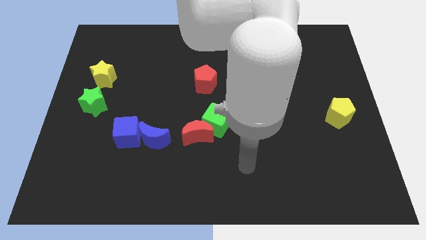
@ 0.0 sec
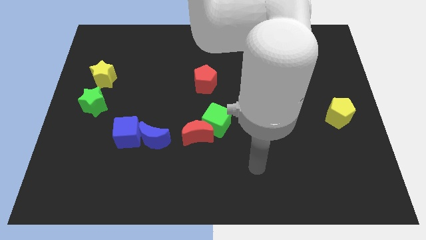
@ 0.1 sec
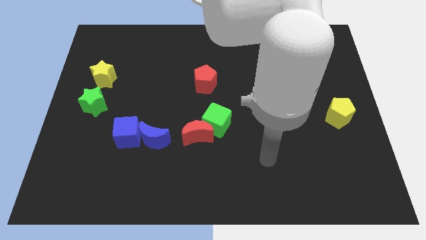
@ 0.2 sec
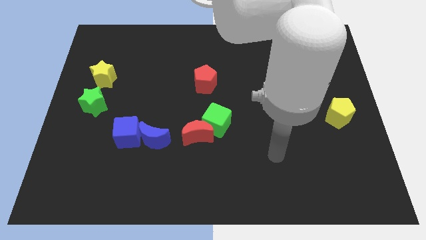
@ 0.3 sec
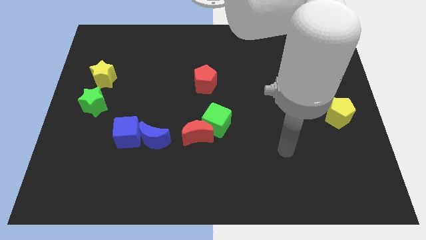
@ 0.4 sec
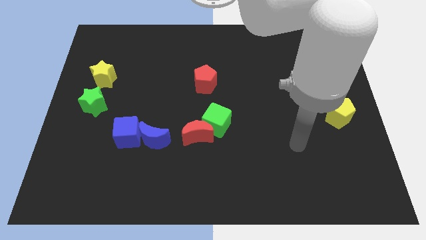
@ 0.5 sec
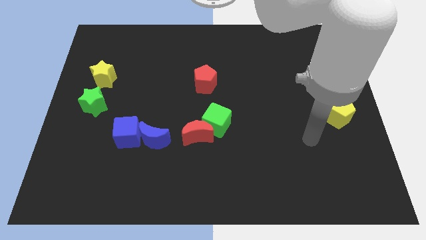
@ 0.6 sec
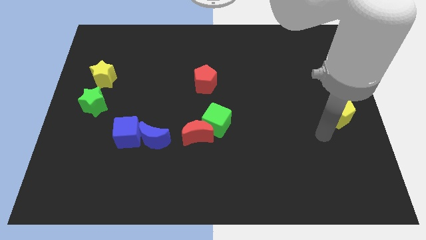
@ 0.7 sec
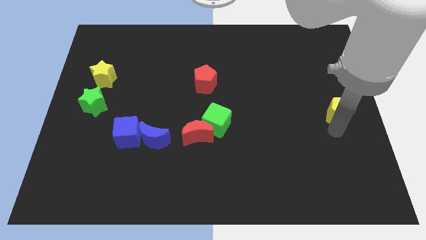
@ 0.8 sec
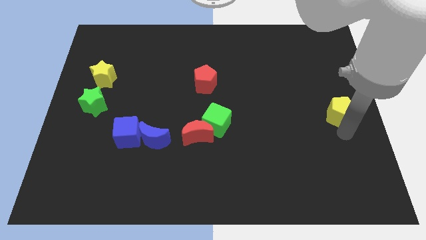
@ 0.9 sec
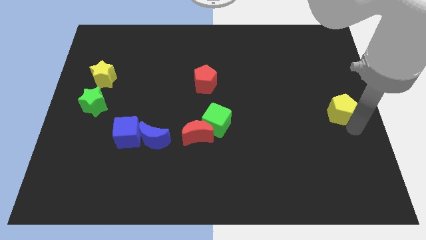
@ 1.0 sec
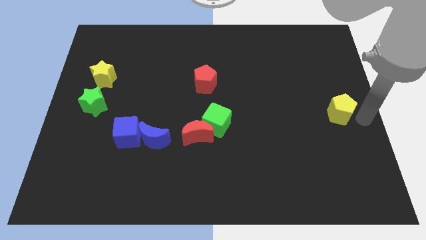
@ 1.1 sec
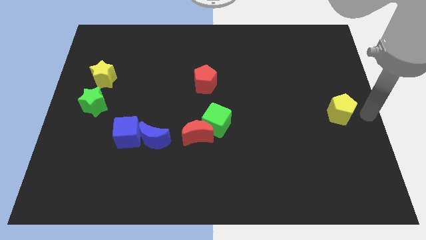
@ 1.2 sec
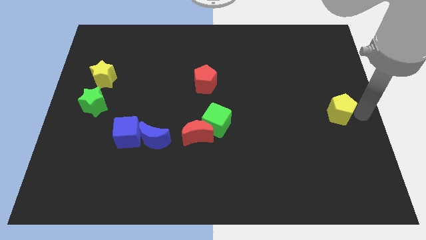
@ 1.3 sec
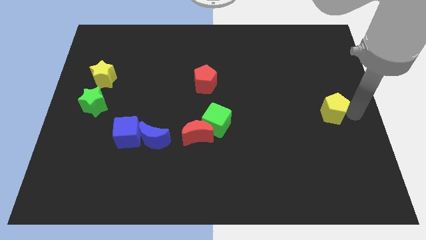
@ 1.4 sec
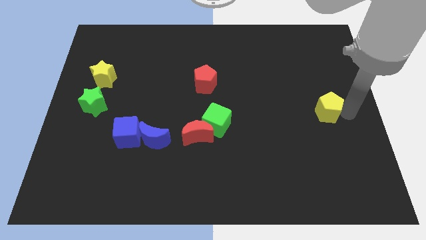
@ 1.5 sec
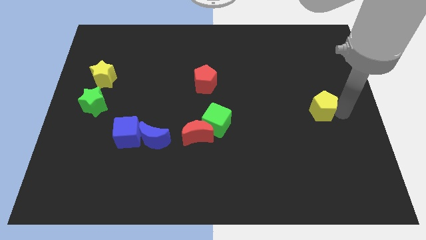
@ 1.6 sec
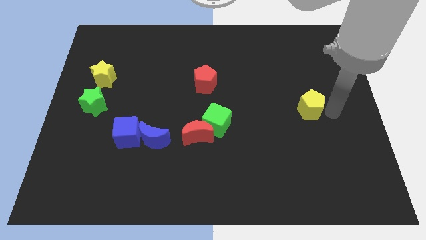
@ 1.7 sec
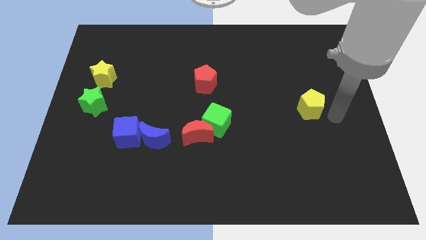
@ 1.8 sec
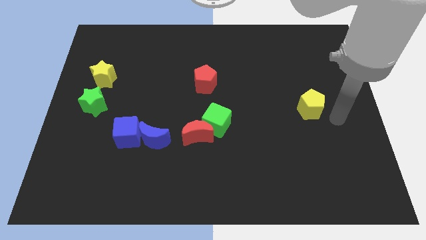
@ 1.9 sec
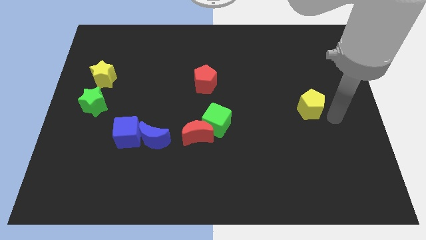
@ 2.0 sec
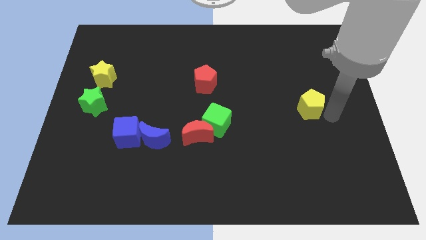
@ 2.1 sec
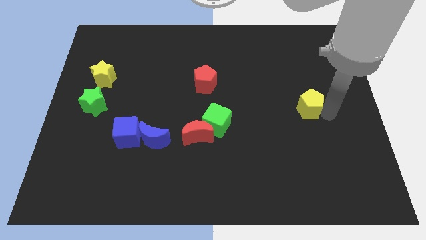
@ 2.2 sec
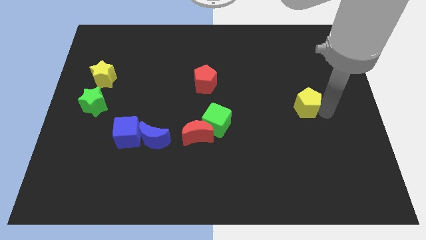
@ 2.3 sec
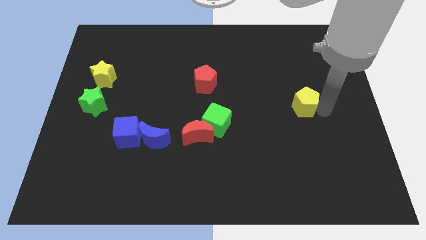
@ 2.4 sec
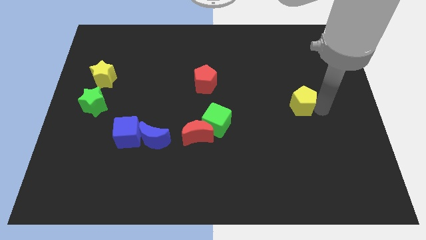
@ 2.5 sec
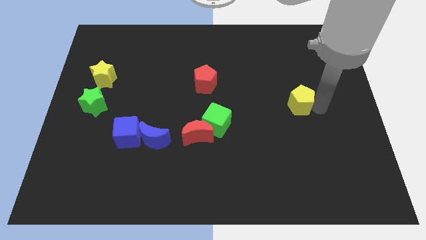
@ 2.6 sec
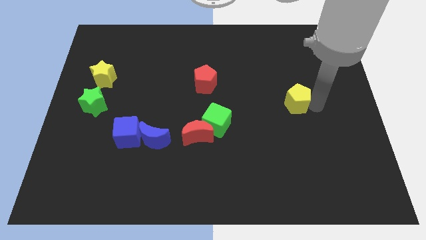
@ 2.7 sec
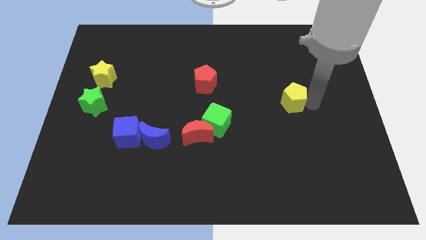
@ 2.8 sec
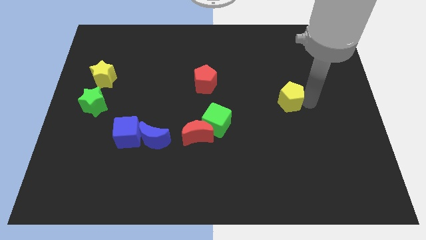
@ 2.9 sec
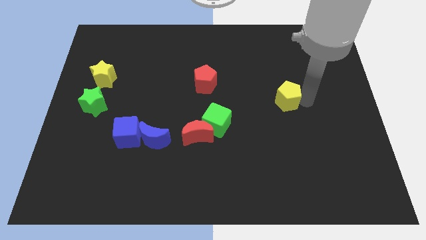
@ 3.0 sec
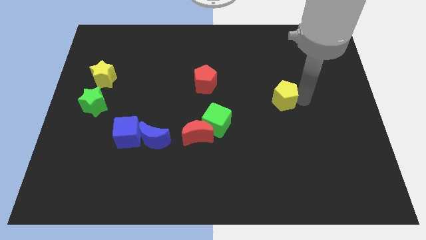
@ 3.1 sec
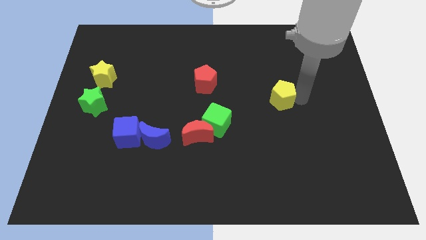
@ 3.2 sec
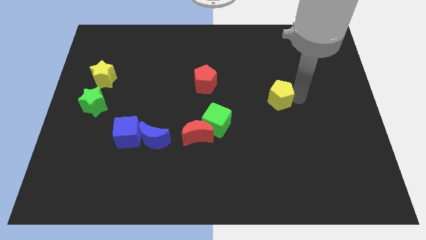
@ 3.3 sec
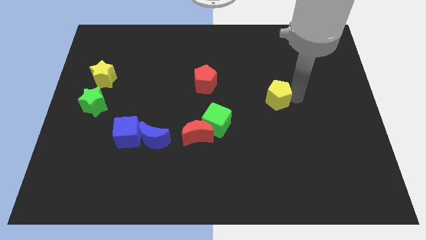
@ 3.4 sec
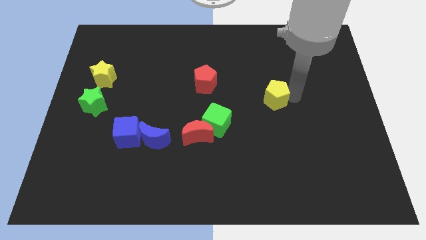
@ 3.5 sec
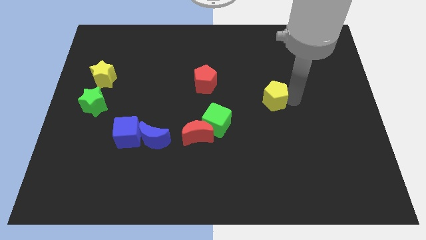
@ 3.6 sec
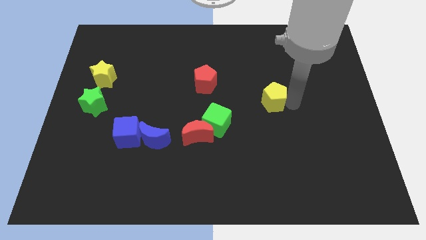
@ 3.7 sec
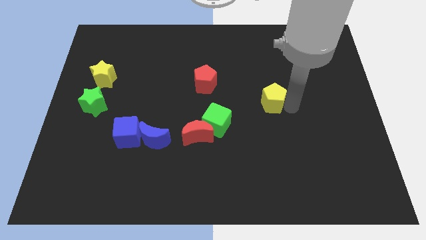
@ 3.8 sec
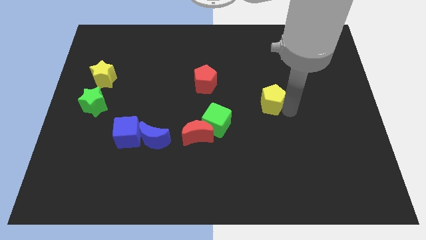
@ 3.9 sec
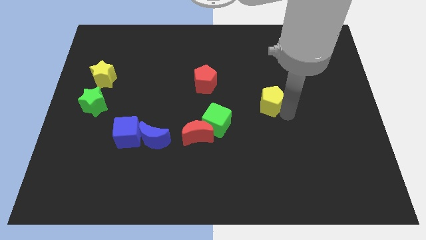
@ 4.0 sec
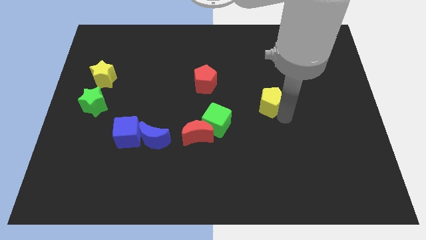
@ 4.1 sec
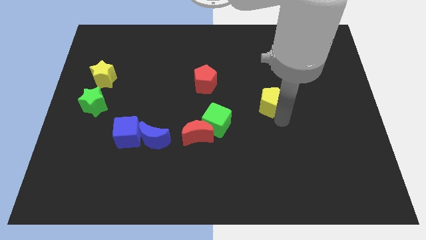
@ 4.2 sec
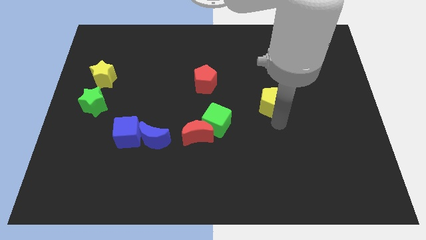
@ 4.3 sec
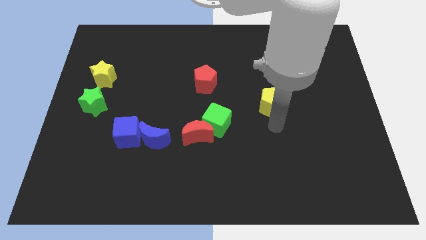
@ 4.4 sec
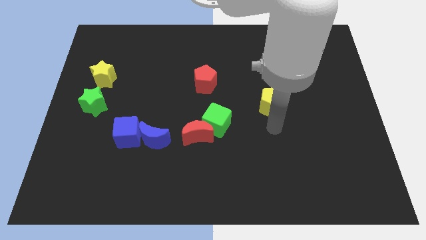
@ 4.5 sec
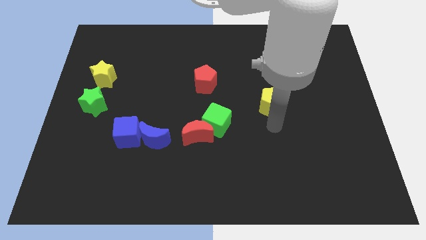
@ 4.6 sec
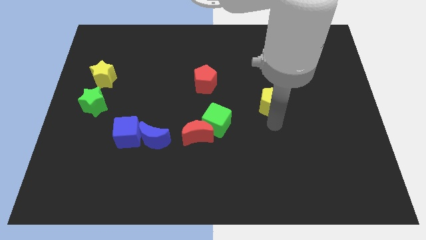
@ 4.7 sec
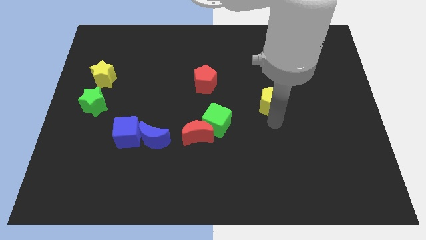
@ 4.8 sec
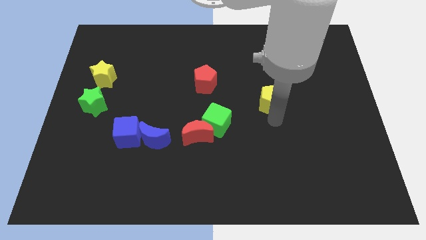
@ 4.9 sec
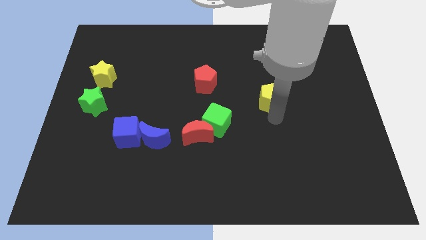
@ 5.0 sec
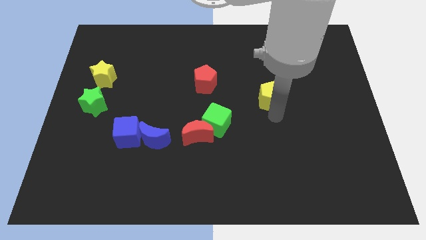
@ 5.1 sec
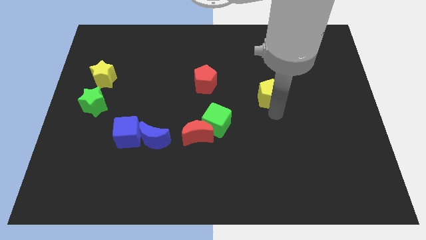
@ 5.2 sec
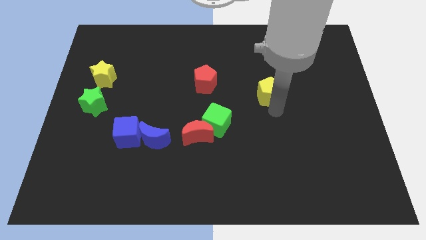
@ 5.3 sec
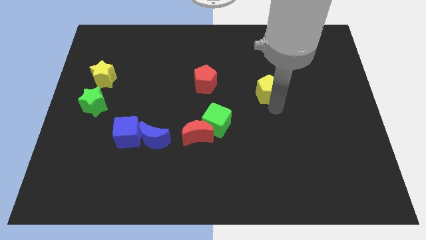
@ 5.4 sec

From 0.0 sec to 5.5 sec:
push the yellow pentagon to the right side of the red pentagon

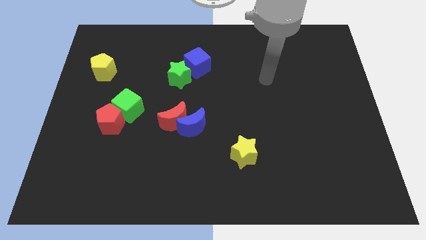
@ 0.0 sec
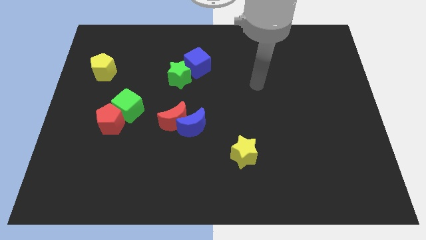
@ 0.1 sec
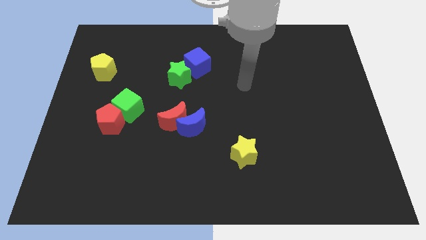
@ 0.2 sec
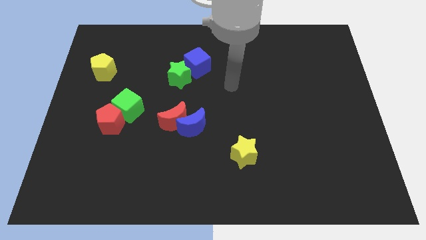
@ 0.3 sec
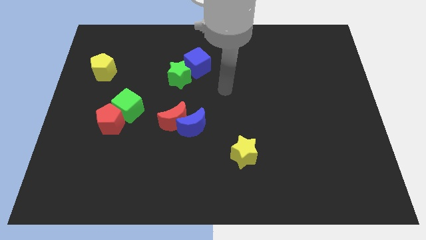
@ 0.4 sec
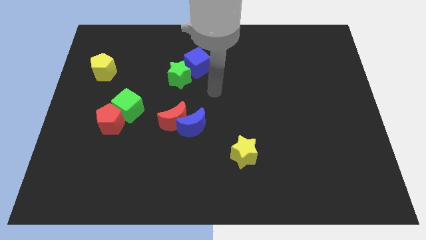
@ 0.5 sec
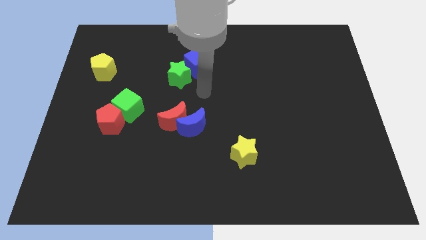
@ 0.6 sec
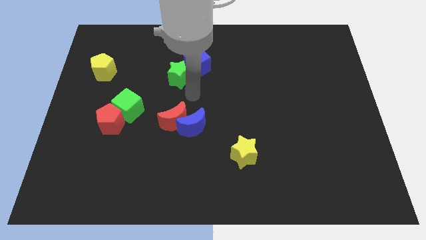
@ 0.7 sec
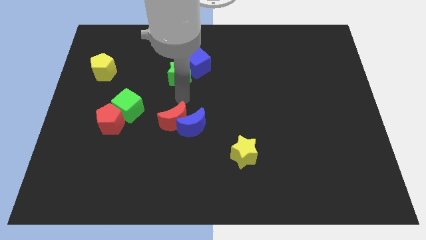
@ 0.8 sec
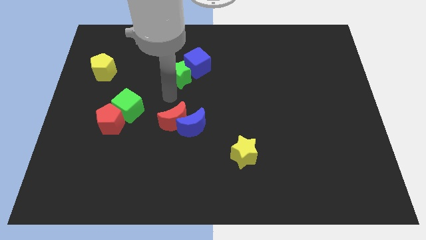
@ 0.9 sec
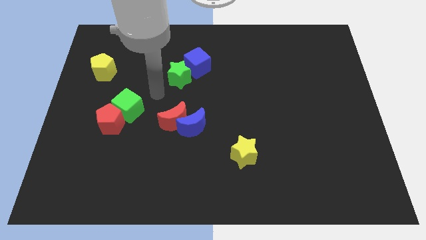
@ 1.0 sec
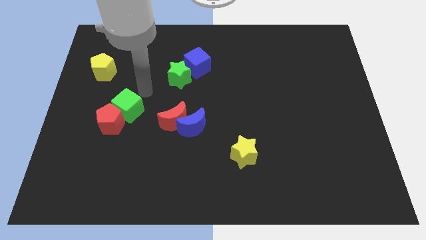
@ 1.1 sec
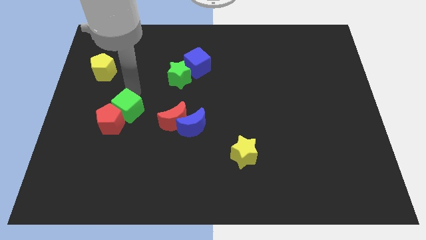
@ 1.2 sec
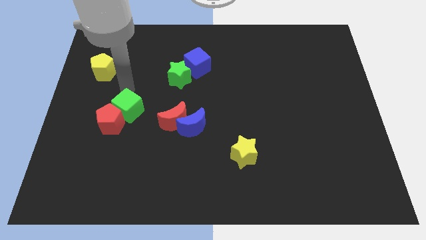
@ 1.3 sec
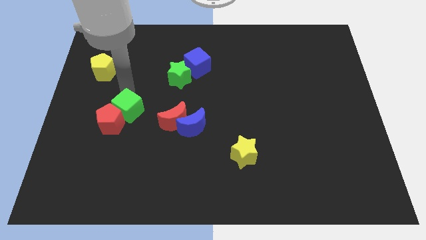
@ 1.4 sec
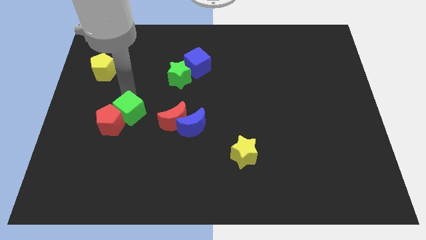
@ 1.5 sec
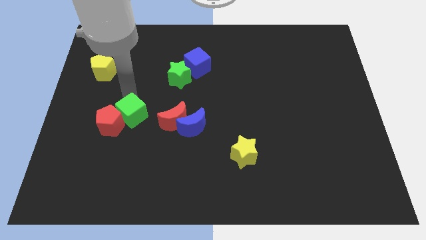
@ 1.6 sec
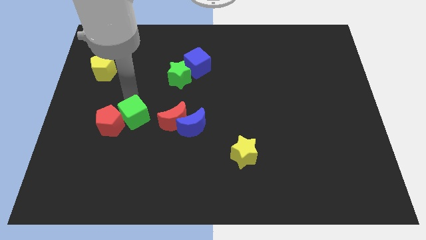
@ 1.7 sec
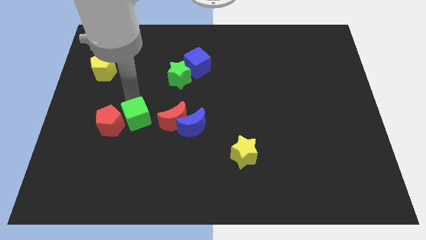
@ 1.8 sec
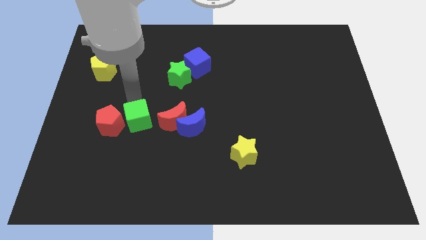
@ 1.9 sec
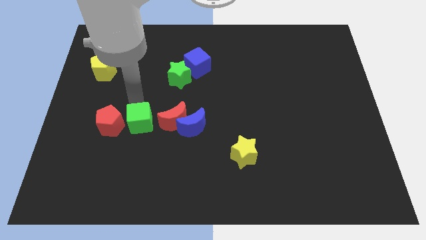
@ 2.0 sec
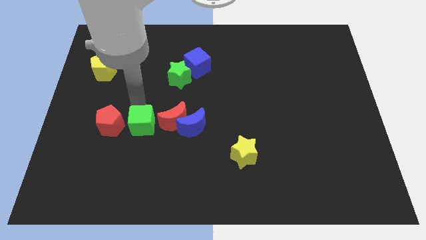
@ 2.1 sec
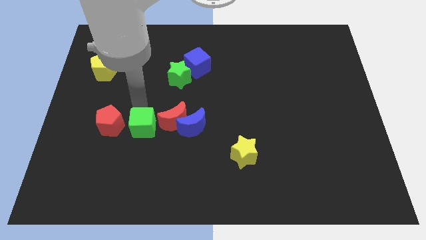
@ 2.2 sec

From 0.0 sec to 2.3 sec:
put the green cube to the bottom right side of the red pentagon
